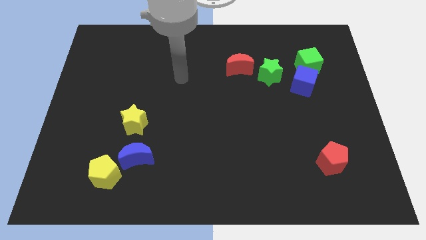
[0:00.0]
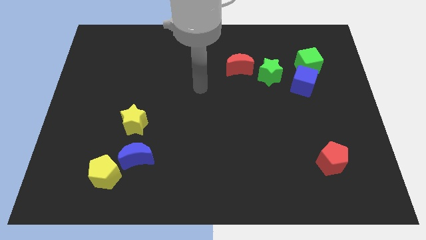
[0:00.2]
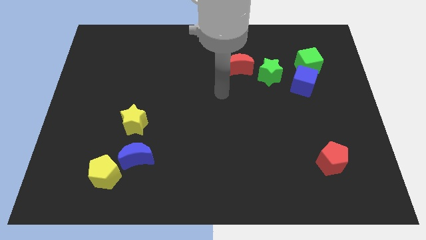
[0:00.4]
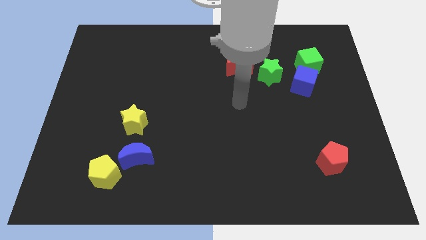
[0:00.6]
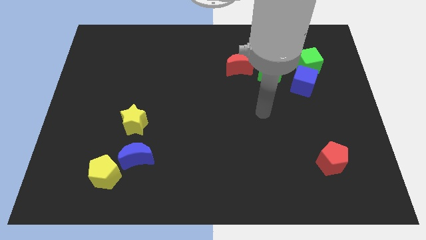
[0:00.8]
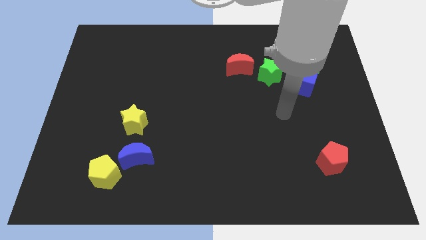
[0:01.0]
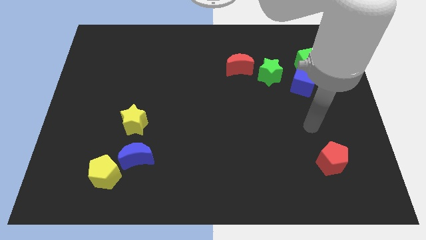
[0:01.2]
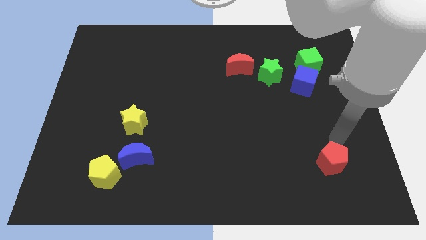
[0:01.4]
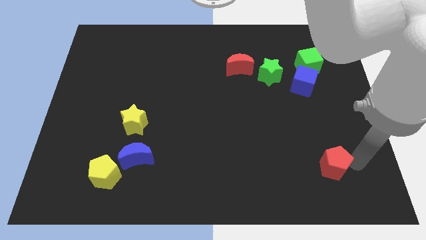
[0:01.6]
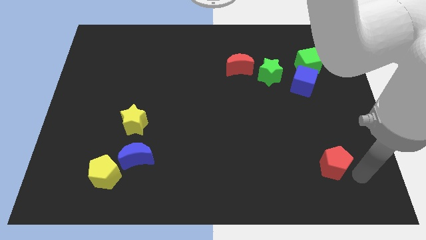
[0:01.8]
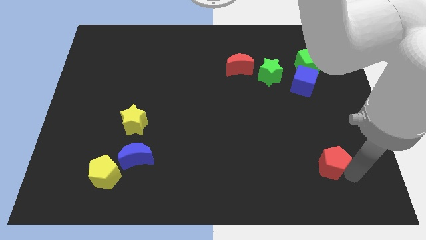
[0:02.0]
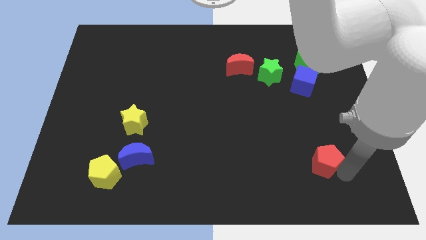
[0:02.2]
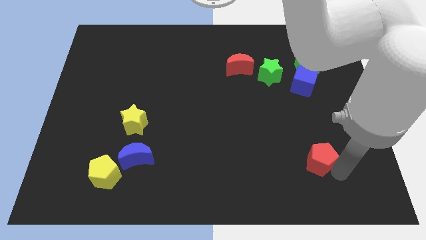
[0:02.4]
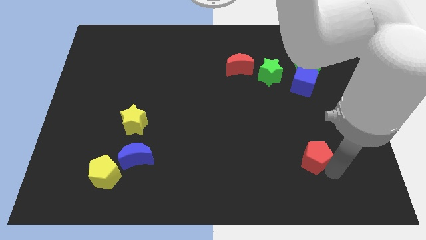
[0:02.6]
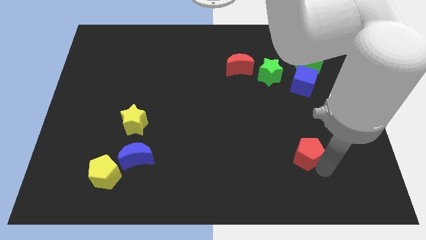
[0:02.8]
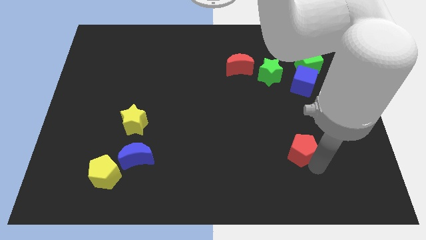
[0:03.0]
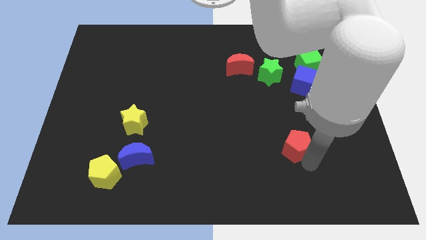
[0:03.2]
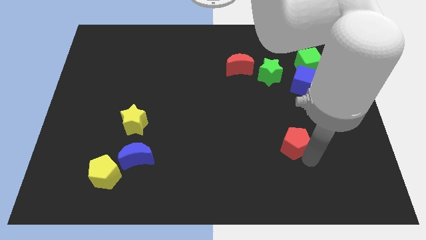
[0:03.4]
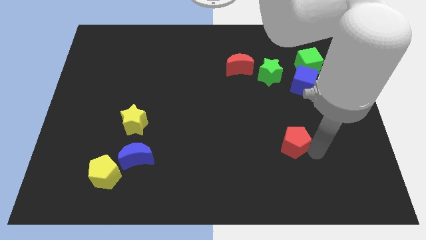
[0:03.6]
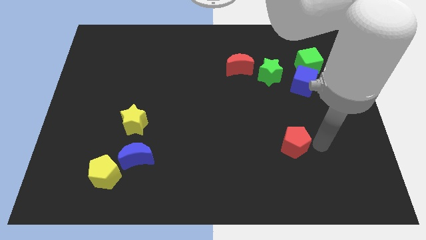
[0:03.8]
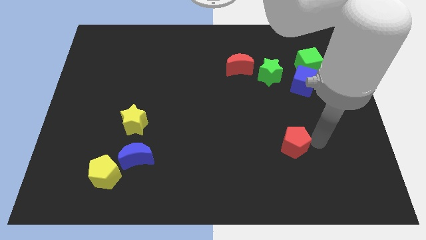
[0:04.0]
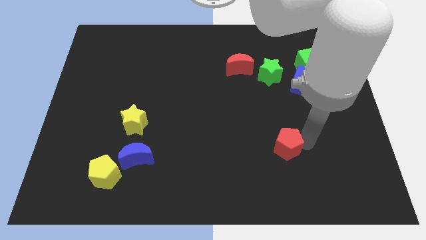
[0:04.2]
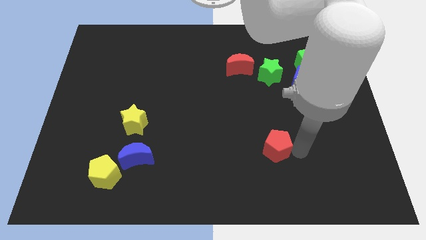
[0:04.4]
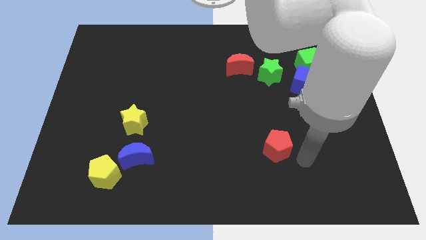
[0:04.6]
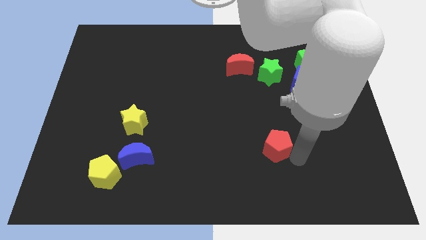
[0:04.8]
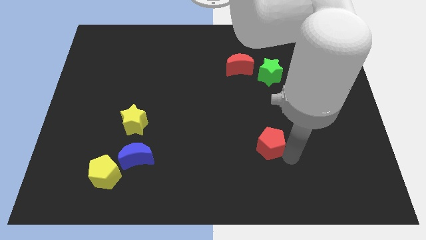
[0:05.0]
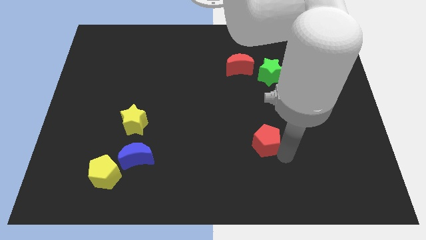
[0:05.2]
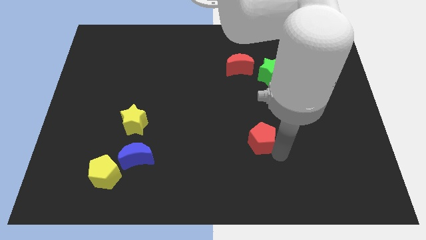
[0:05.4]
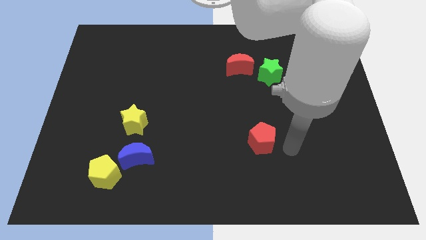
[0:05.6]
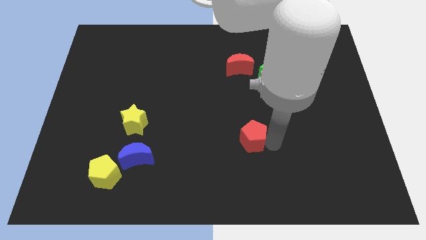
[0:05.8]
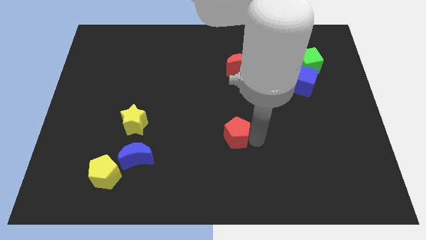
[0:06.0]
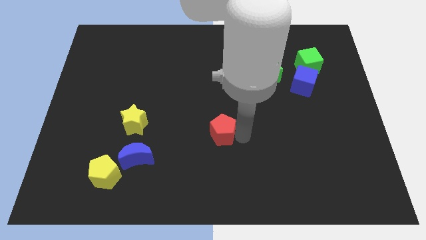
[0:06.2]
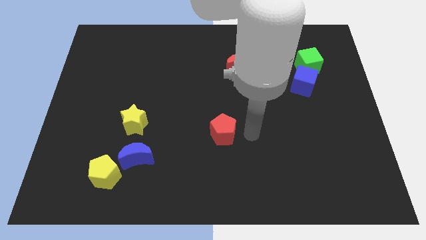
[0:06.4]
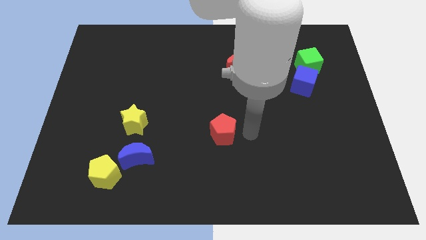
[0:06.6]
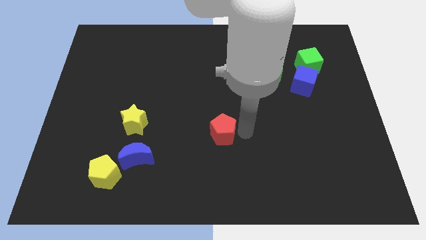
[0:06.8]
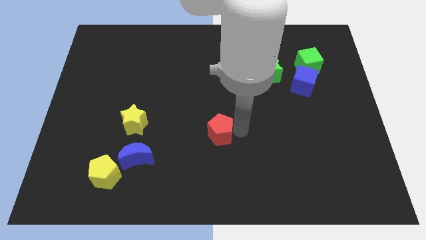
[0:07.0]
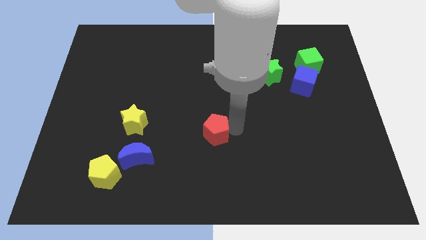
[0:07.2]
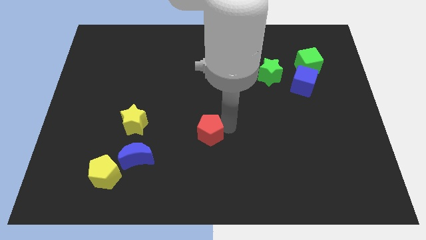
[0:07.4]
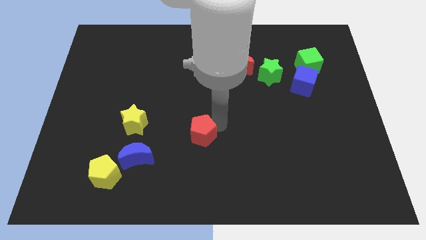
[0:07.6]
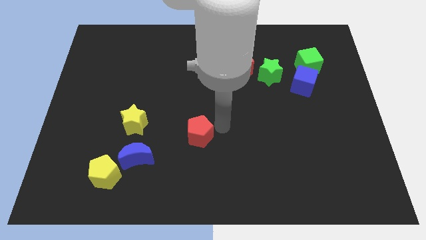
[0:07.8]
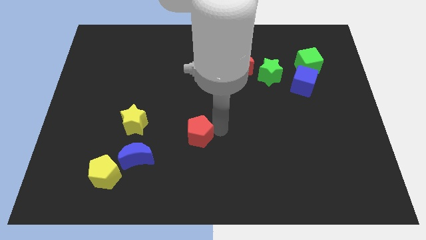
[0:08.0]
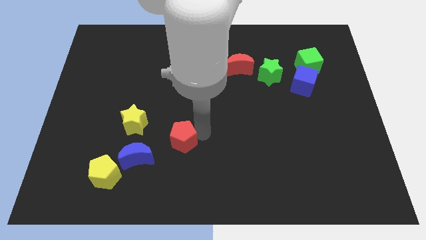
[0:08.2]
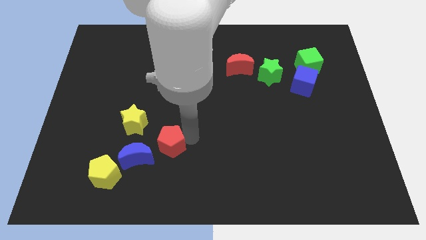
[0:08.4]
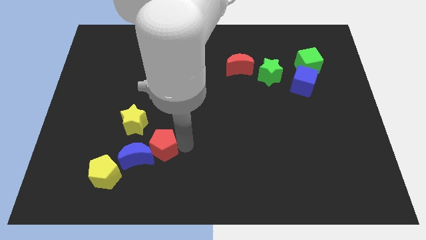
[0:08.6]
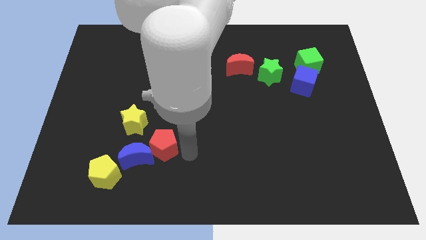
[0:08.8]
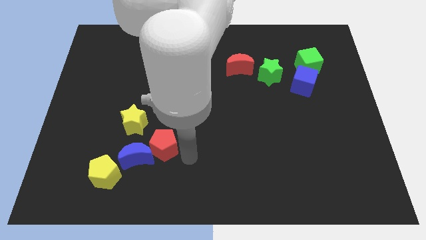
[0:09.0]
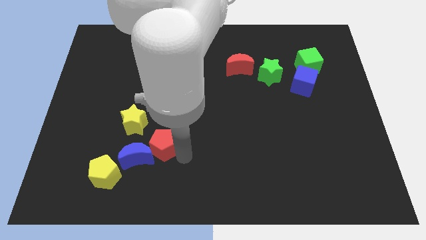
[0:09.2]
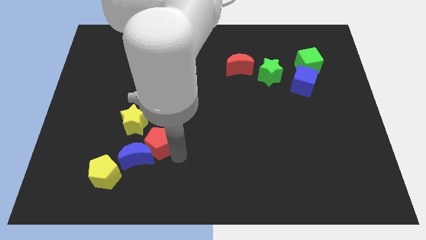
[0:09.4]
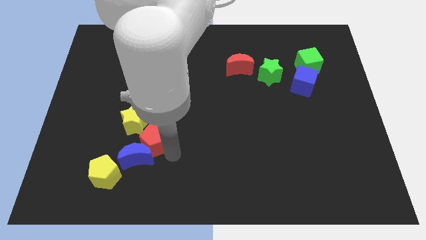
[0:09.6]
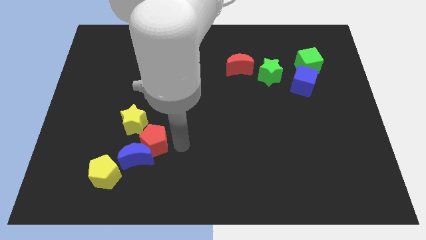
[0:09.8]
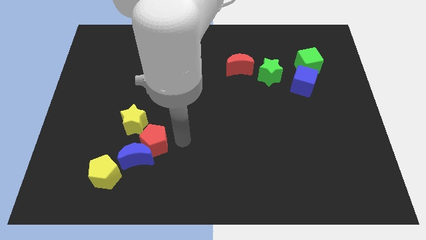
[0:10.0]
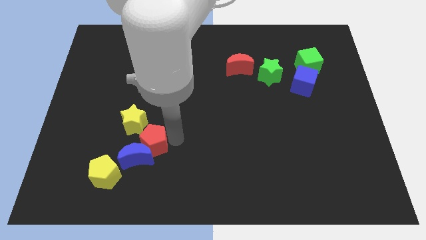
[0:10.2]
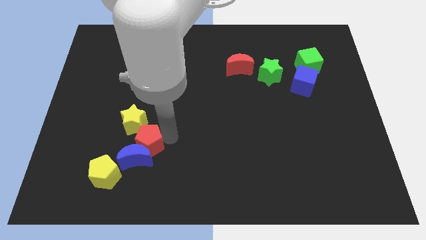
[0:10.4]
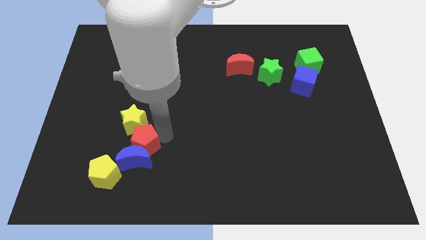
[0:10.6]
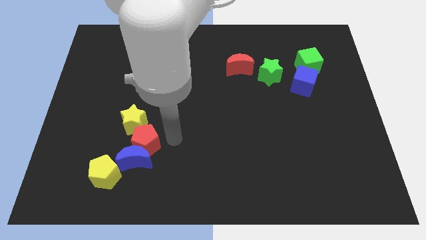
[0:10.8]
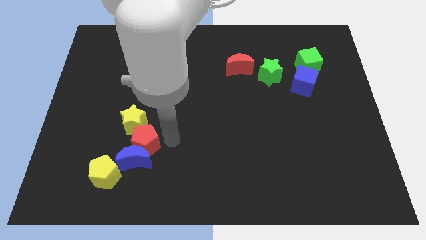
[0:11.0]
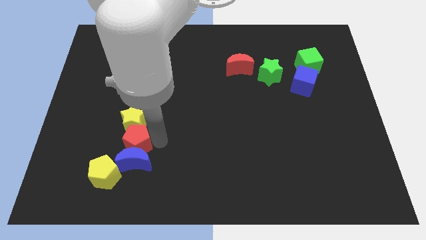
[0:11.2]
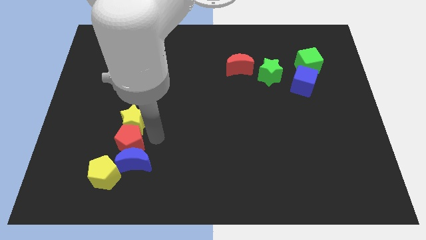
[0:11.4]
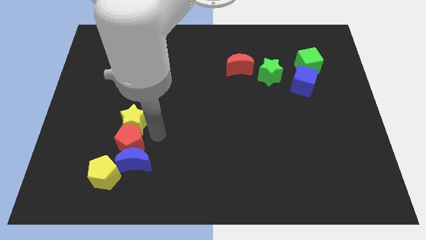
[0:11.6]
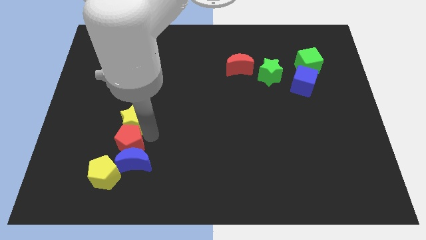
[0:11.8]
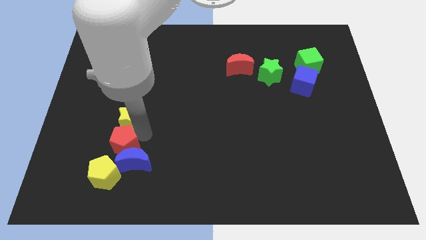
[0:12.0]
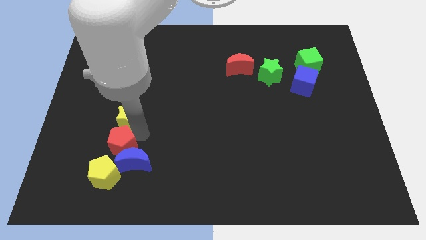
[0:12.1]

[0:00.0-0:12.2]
push the red pentagon left of the blue moon

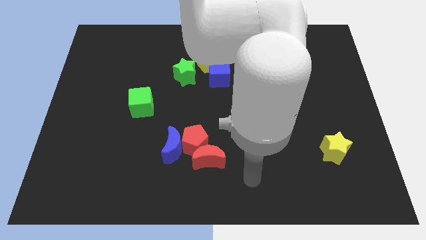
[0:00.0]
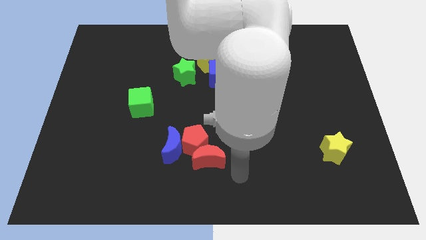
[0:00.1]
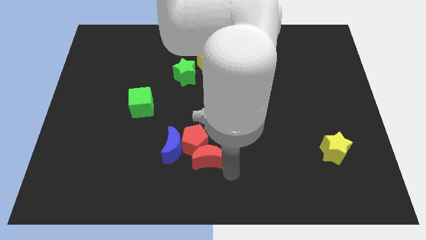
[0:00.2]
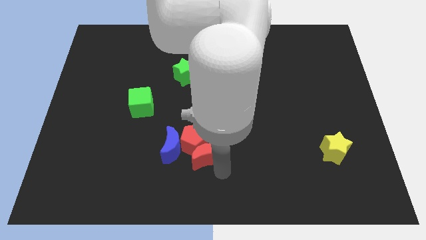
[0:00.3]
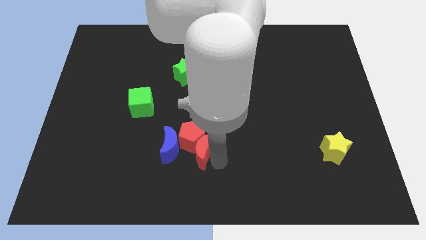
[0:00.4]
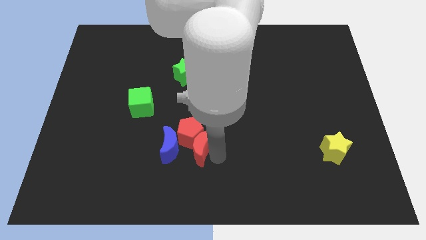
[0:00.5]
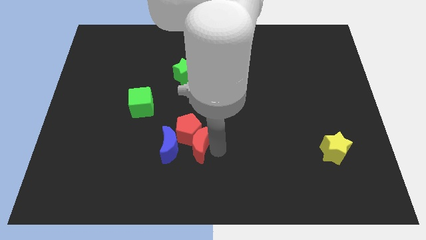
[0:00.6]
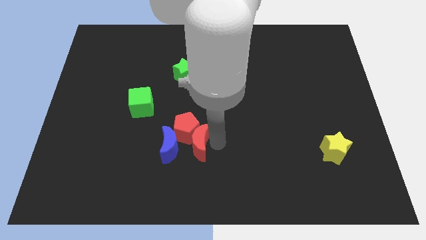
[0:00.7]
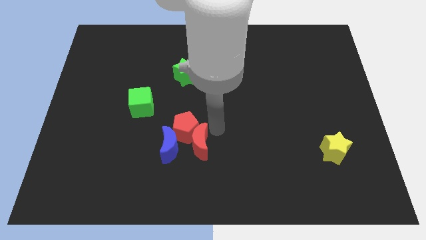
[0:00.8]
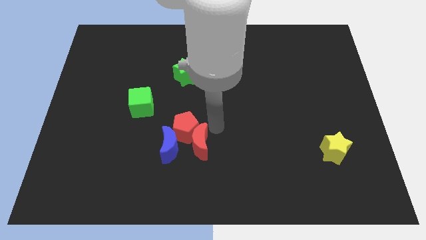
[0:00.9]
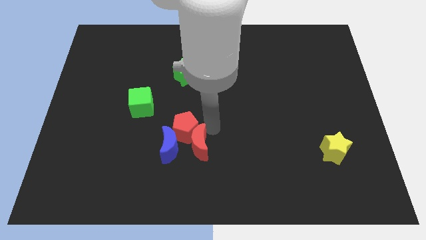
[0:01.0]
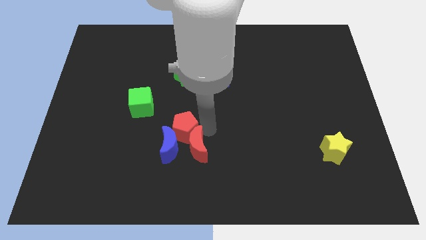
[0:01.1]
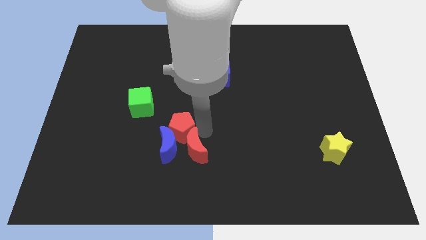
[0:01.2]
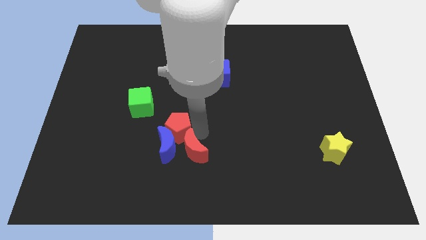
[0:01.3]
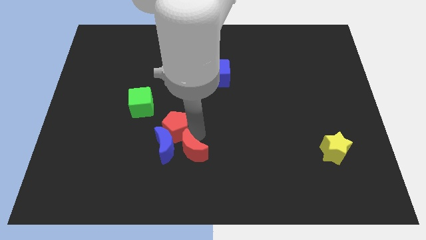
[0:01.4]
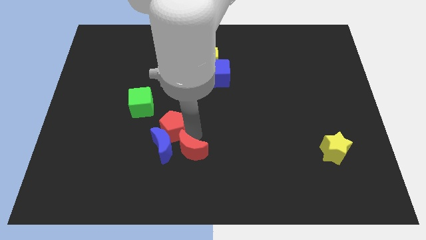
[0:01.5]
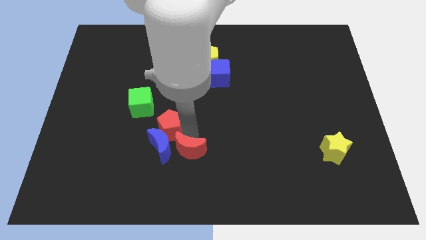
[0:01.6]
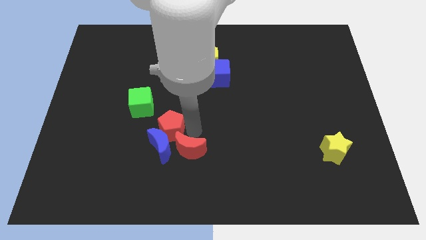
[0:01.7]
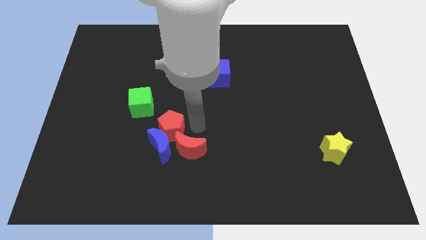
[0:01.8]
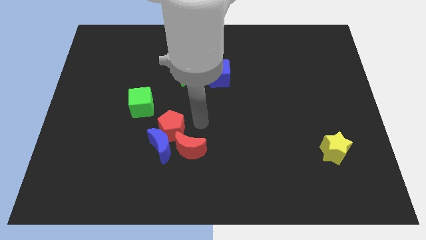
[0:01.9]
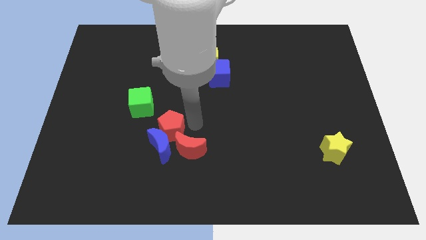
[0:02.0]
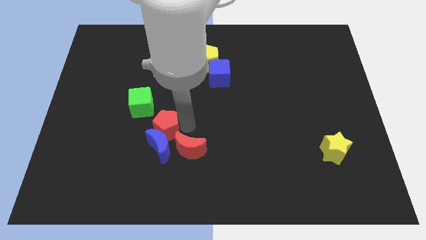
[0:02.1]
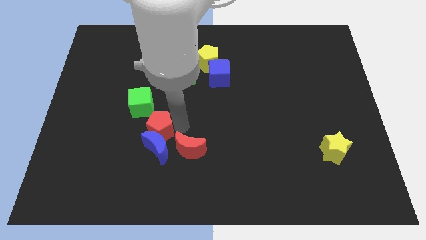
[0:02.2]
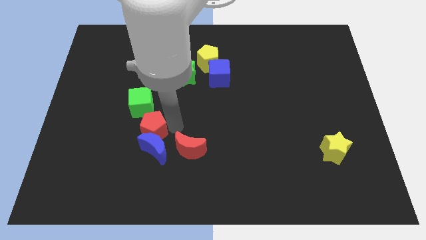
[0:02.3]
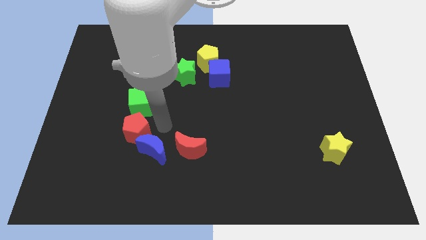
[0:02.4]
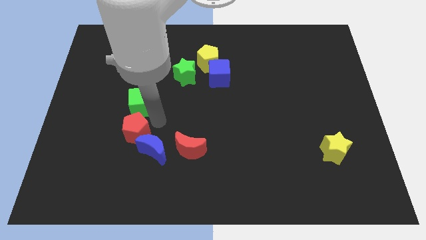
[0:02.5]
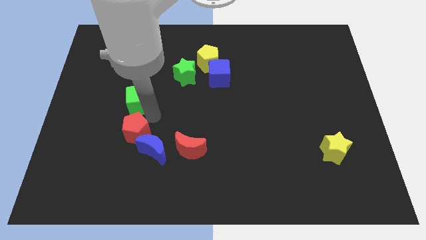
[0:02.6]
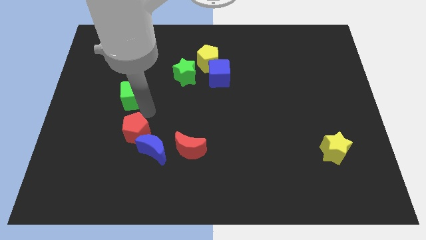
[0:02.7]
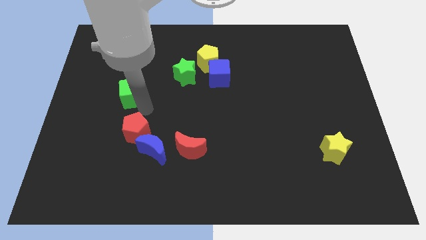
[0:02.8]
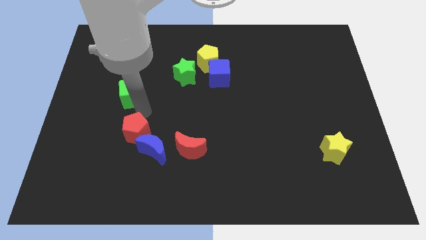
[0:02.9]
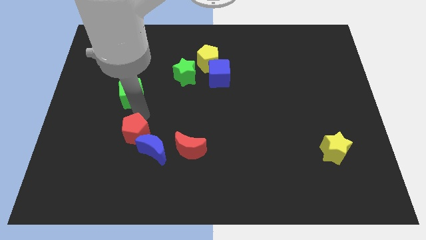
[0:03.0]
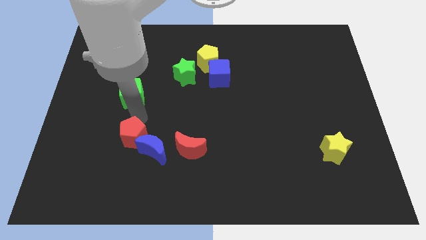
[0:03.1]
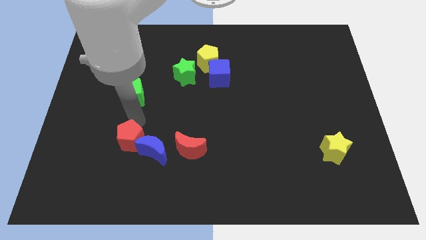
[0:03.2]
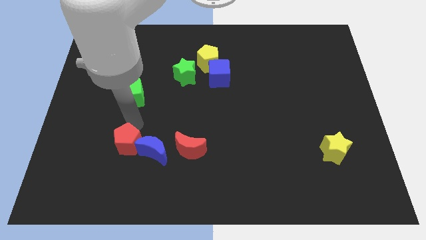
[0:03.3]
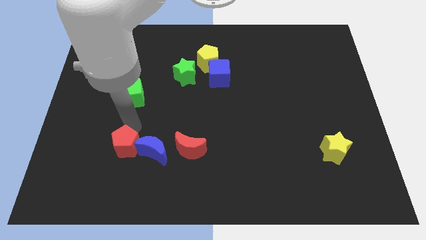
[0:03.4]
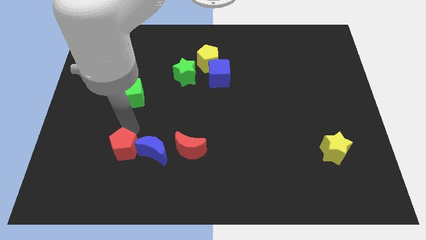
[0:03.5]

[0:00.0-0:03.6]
move the red pentagon diagonally down and to the left of the blue moon
